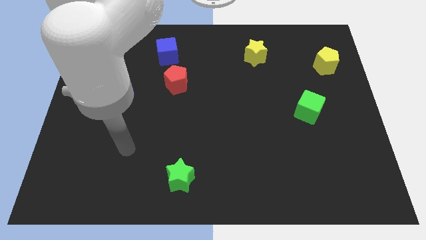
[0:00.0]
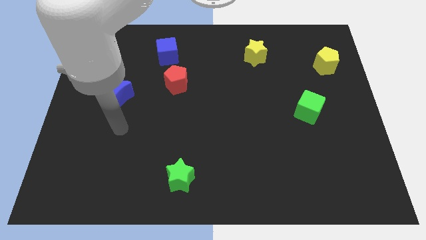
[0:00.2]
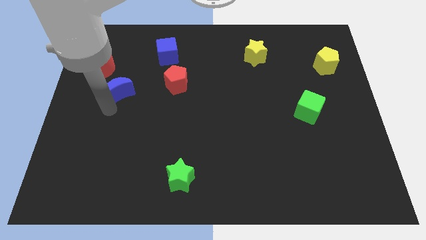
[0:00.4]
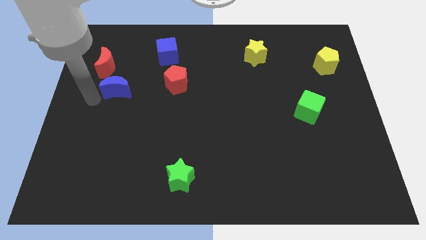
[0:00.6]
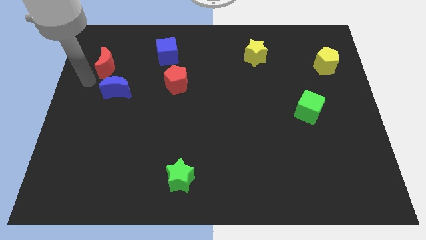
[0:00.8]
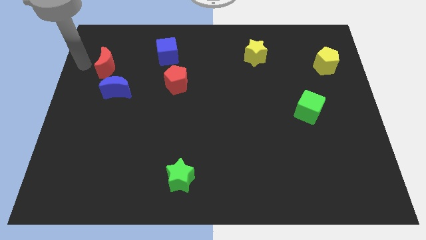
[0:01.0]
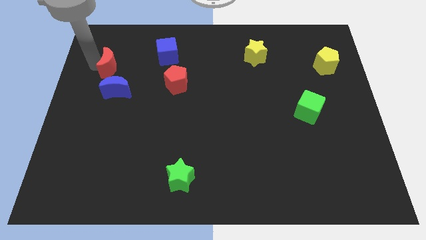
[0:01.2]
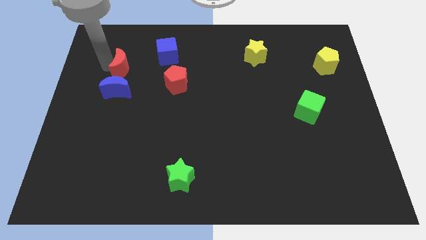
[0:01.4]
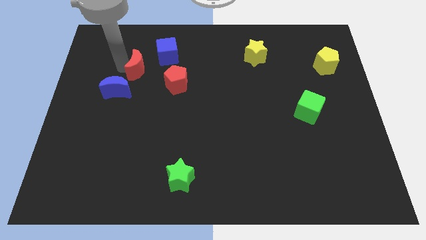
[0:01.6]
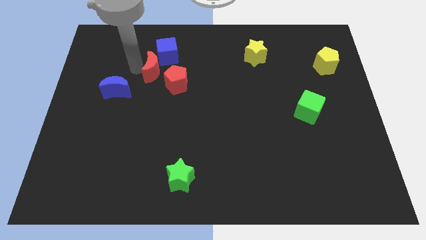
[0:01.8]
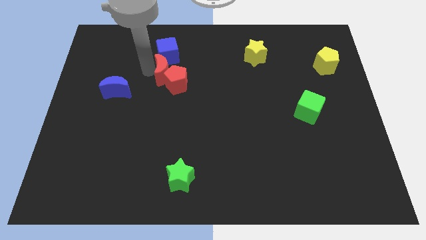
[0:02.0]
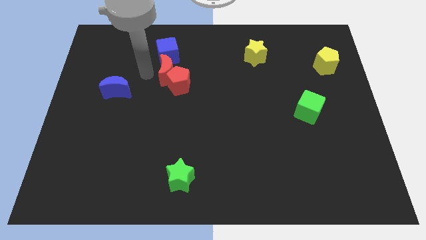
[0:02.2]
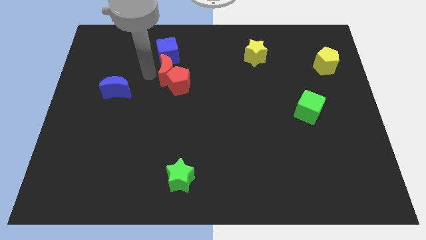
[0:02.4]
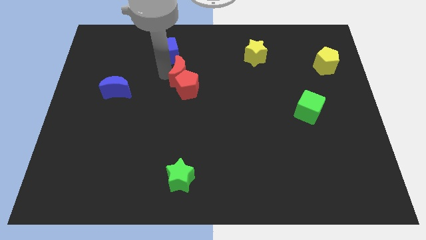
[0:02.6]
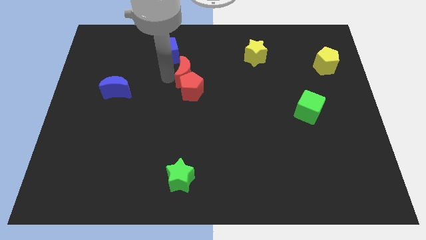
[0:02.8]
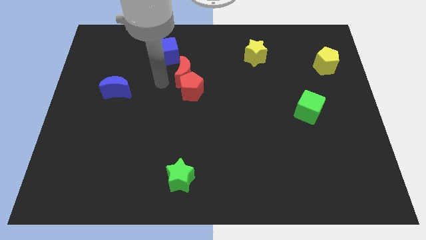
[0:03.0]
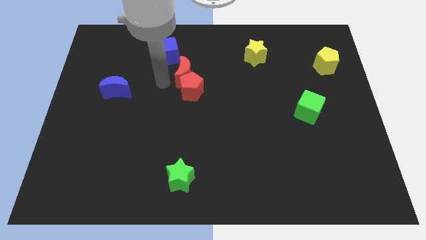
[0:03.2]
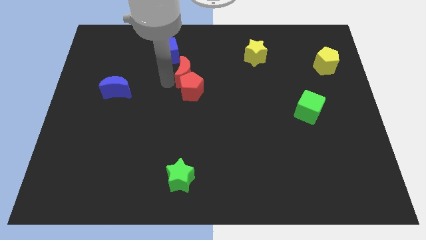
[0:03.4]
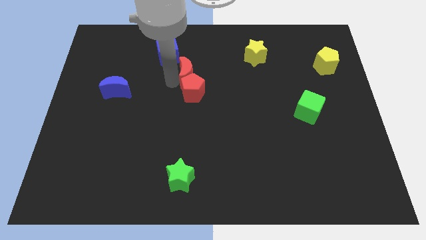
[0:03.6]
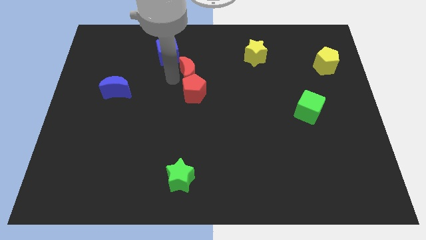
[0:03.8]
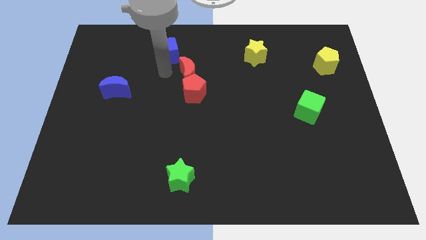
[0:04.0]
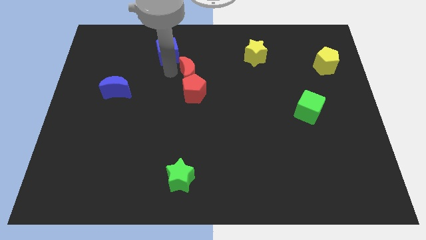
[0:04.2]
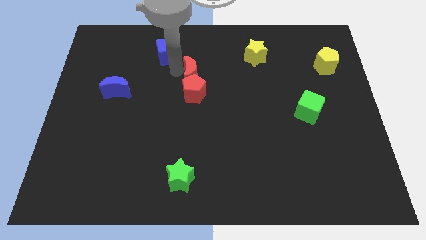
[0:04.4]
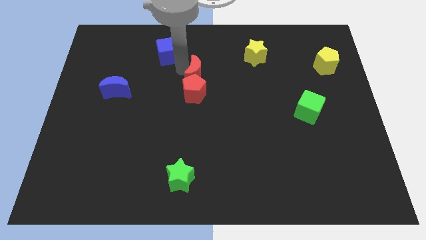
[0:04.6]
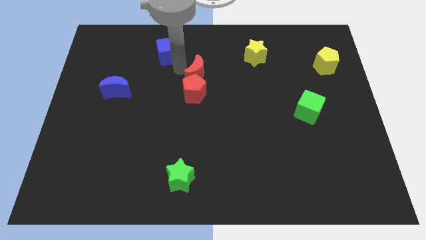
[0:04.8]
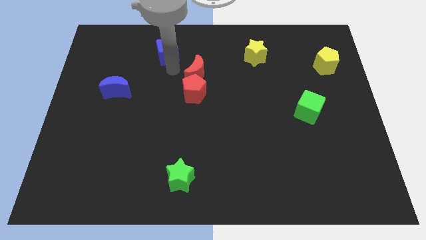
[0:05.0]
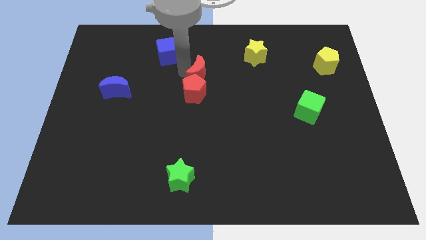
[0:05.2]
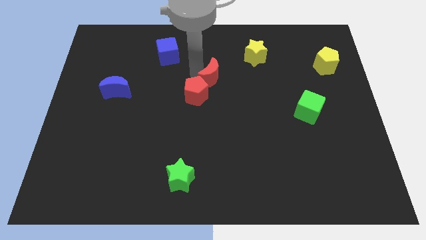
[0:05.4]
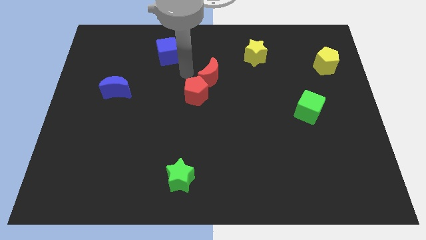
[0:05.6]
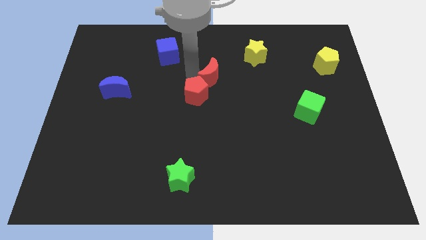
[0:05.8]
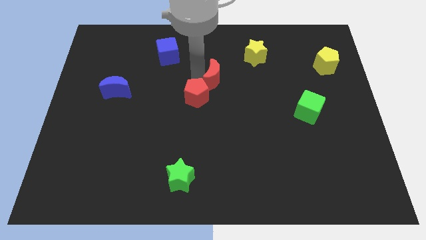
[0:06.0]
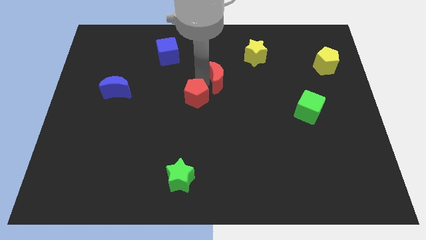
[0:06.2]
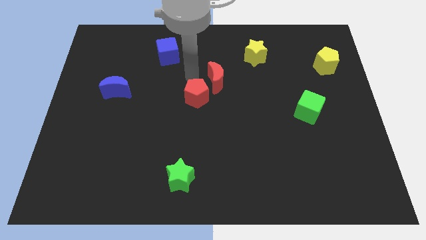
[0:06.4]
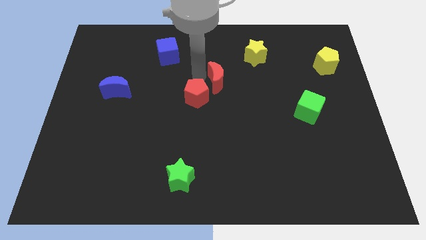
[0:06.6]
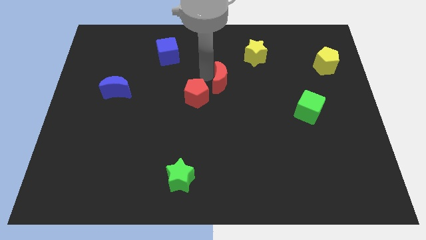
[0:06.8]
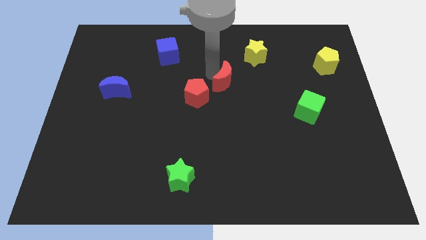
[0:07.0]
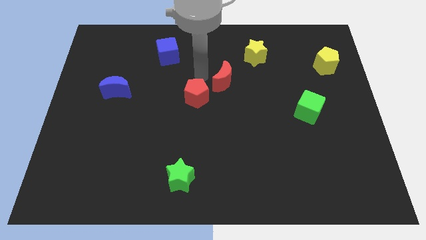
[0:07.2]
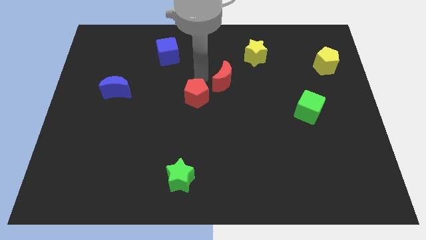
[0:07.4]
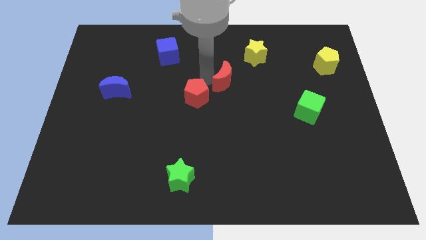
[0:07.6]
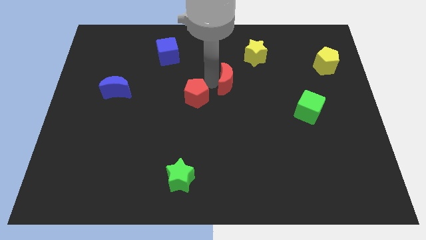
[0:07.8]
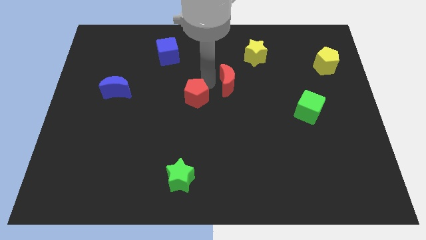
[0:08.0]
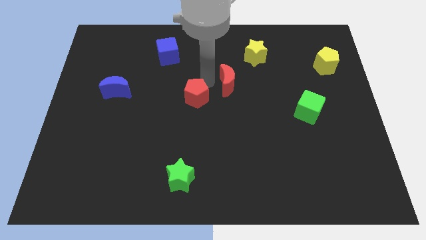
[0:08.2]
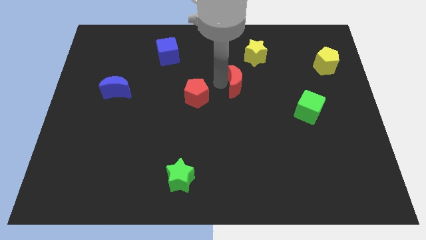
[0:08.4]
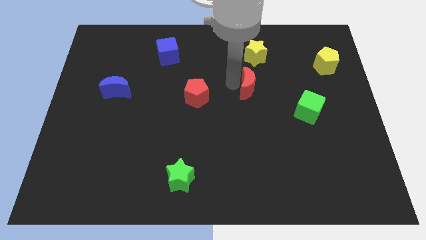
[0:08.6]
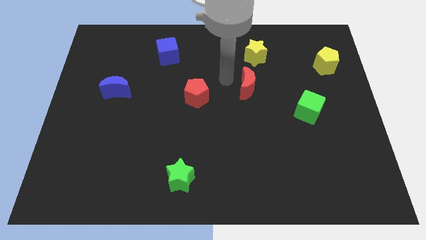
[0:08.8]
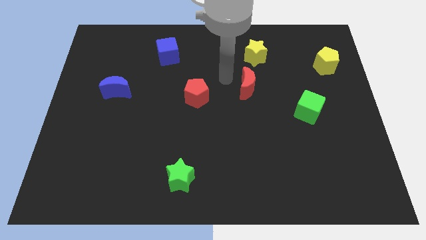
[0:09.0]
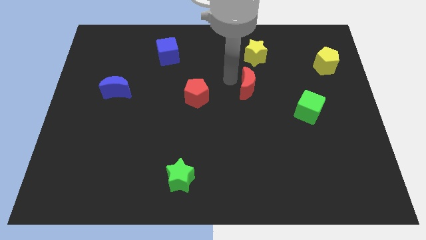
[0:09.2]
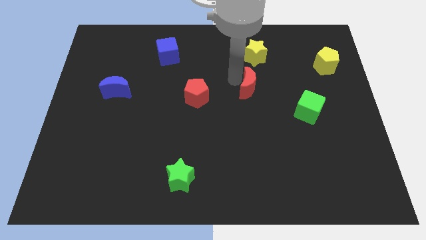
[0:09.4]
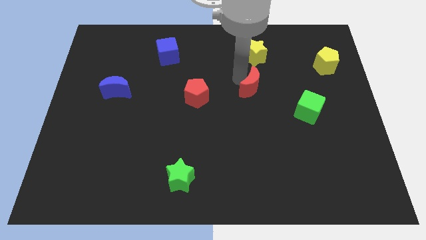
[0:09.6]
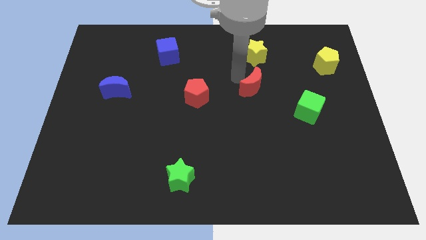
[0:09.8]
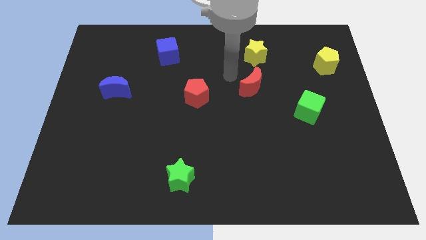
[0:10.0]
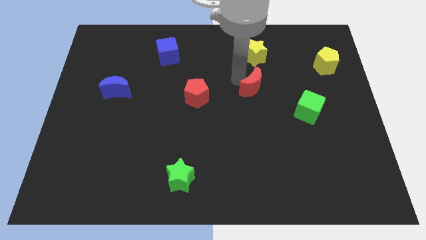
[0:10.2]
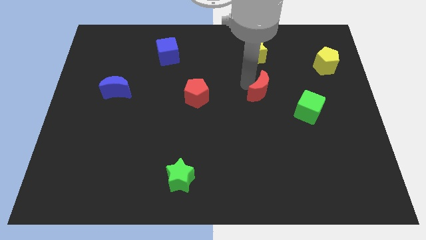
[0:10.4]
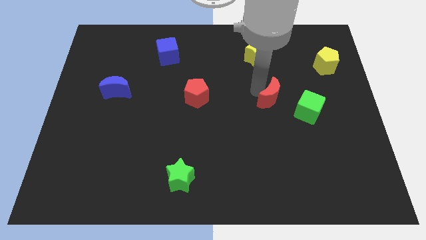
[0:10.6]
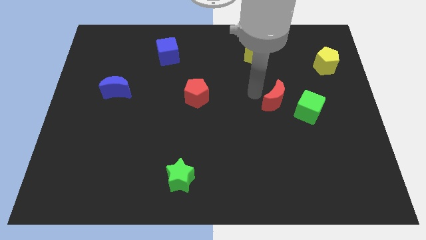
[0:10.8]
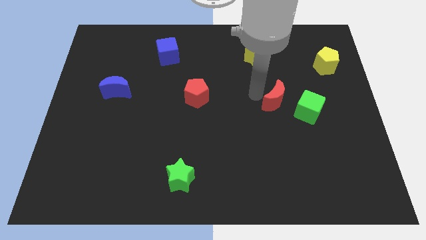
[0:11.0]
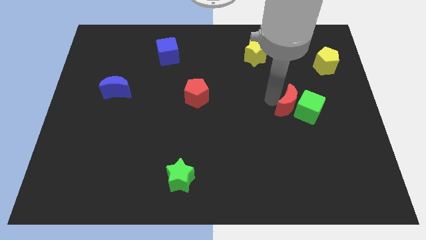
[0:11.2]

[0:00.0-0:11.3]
move the red moon towards the green cube

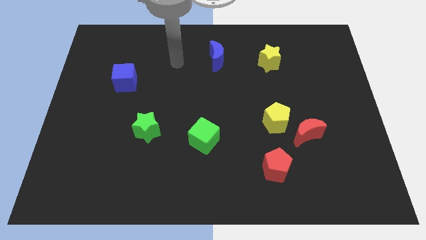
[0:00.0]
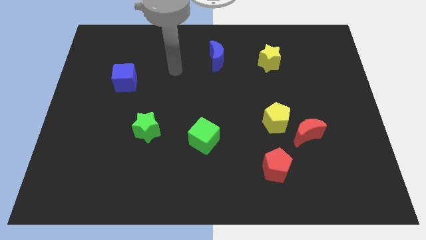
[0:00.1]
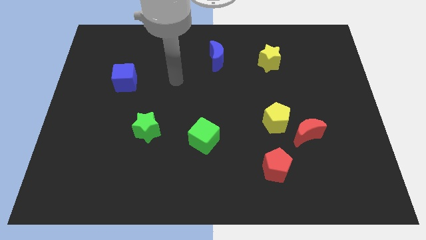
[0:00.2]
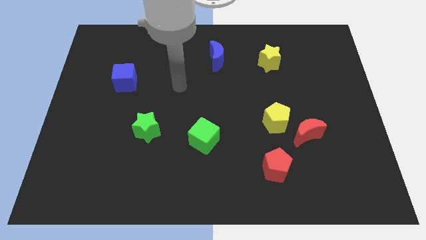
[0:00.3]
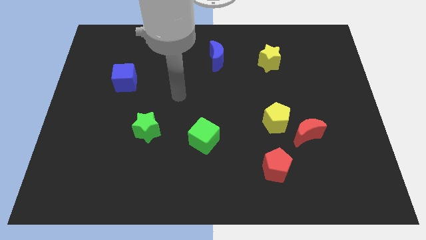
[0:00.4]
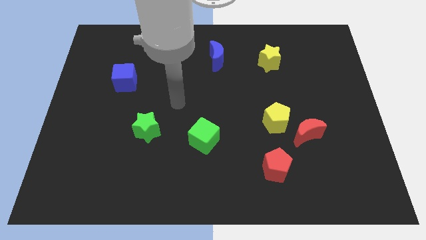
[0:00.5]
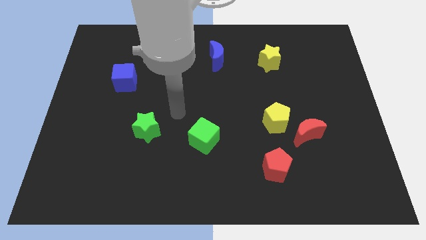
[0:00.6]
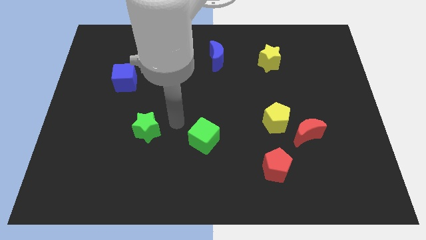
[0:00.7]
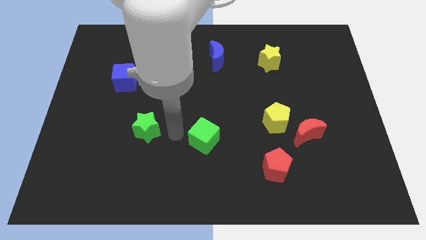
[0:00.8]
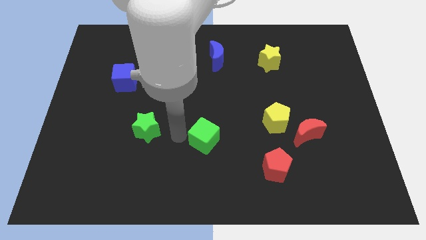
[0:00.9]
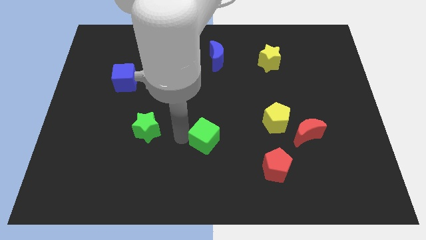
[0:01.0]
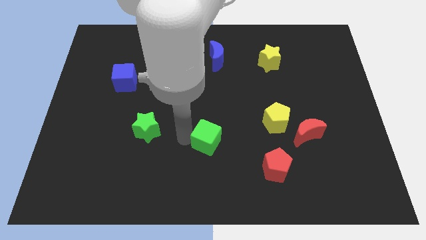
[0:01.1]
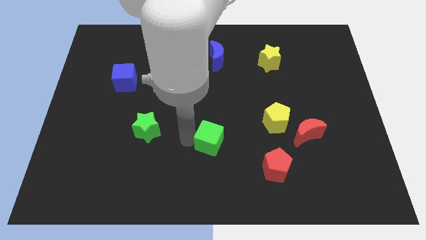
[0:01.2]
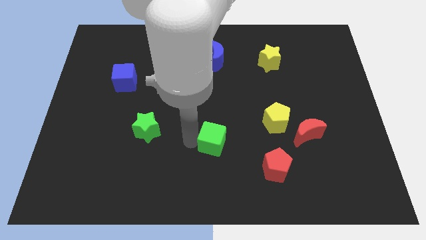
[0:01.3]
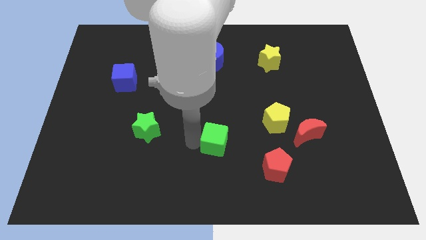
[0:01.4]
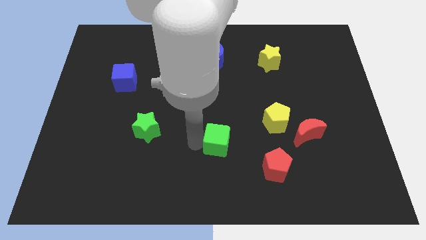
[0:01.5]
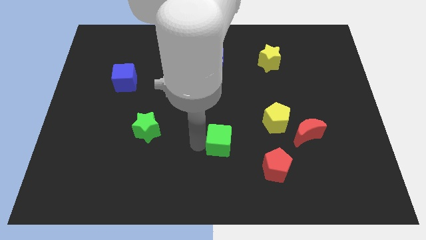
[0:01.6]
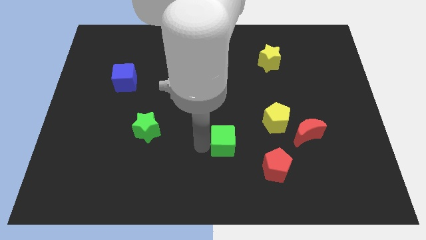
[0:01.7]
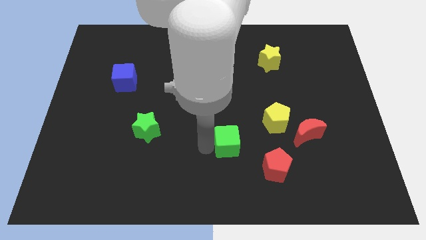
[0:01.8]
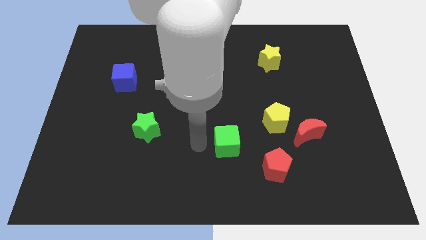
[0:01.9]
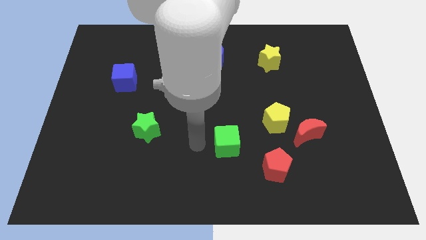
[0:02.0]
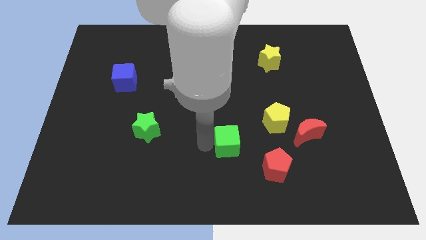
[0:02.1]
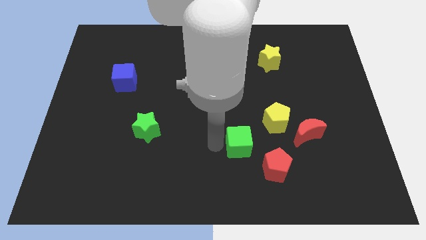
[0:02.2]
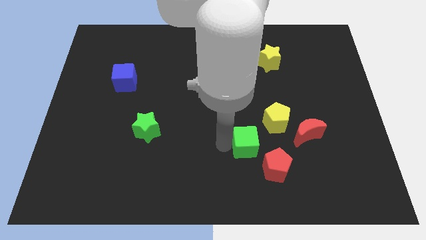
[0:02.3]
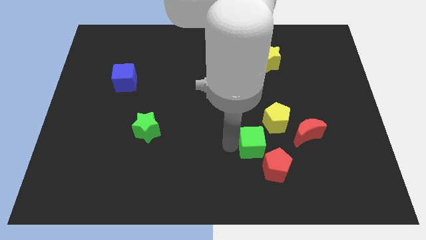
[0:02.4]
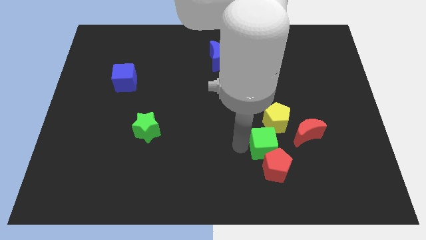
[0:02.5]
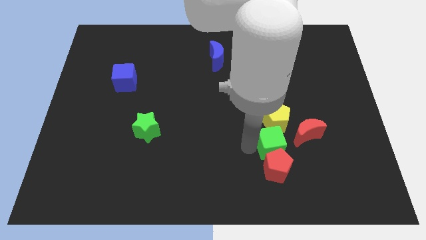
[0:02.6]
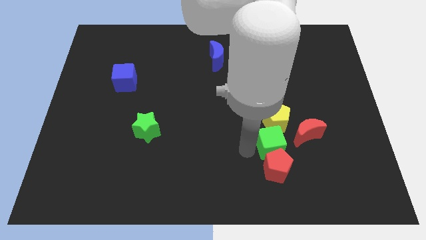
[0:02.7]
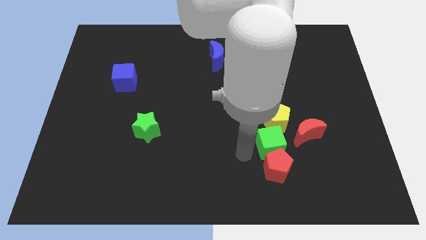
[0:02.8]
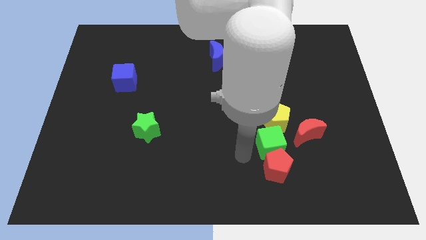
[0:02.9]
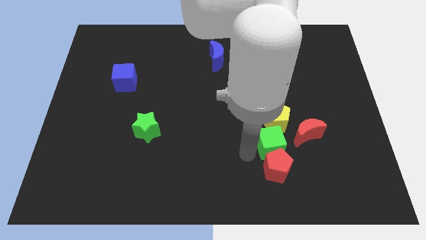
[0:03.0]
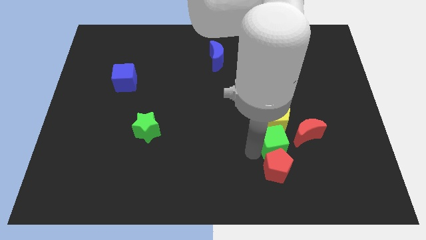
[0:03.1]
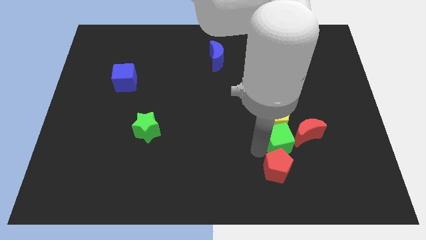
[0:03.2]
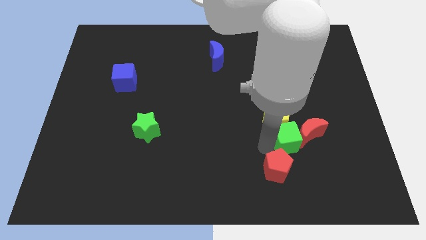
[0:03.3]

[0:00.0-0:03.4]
put the green cube close to the red moon
